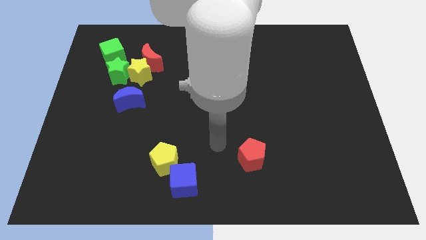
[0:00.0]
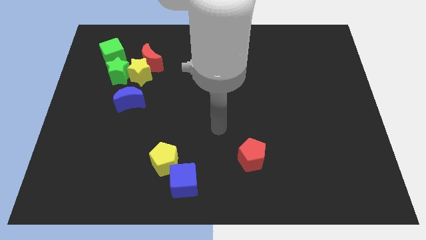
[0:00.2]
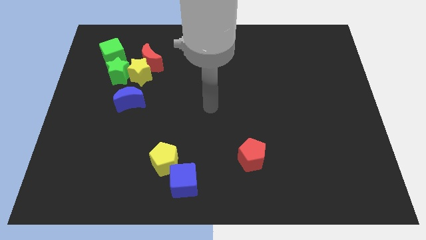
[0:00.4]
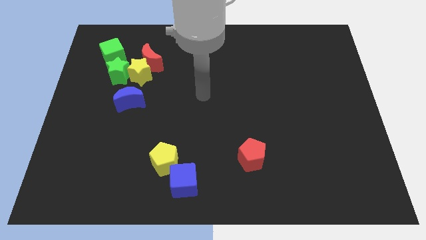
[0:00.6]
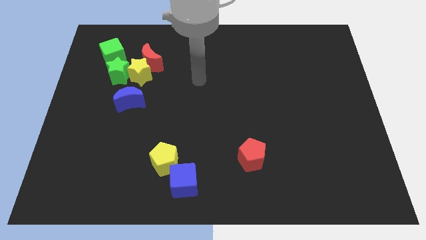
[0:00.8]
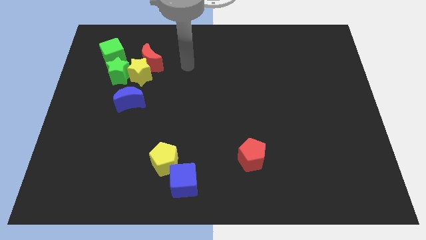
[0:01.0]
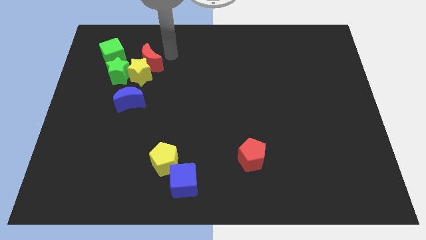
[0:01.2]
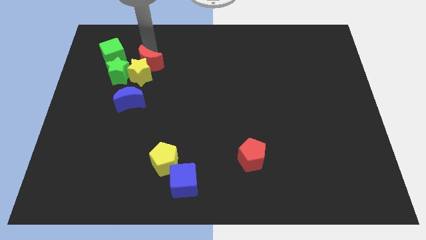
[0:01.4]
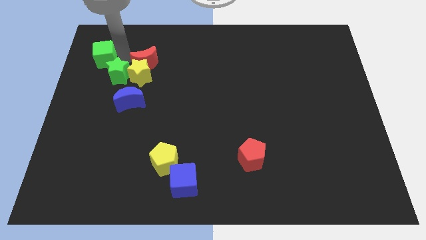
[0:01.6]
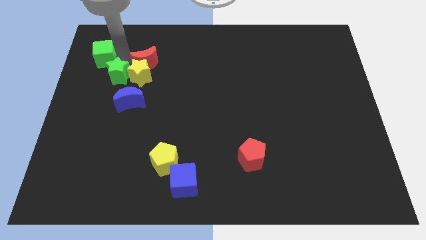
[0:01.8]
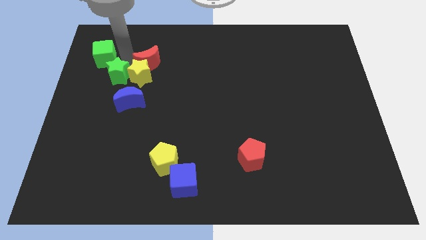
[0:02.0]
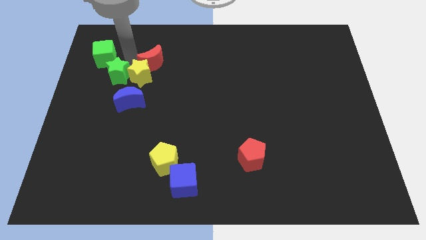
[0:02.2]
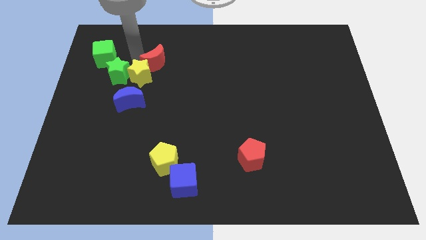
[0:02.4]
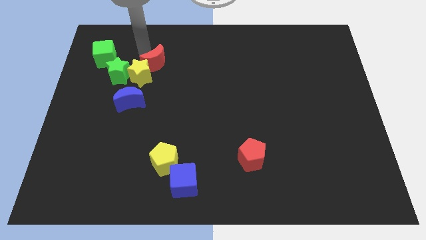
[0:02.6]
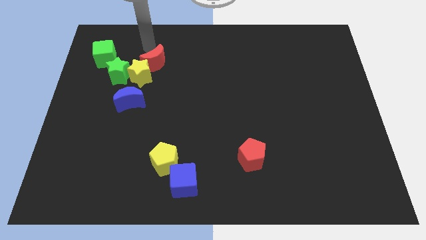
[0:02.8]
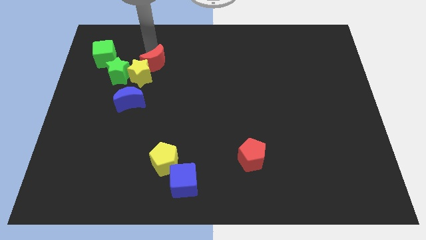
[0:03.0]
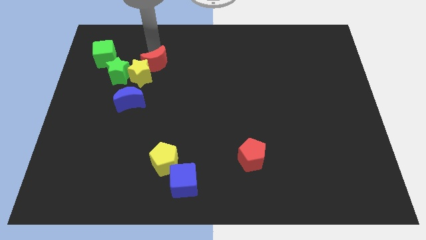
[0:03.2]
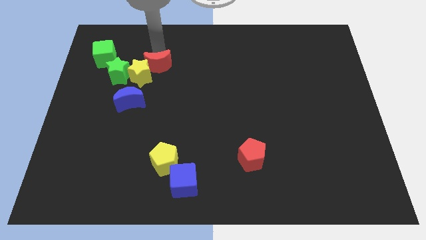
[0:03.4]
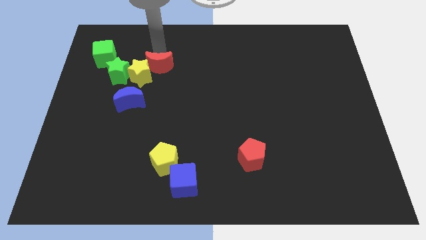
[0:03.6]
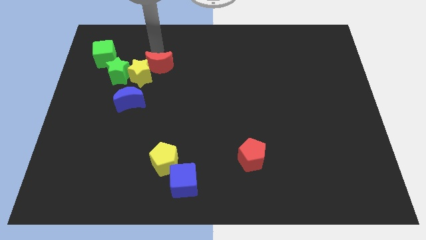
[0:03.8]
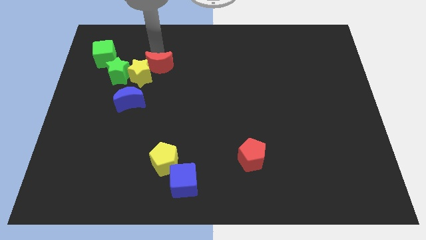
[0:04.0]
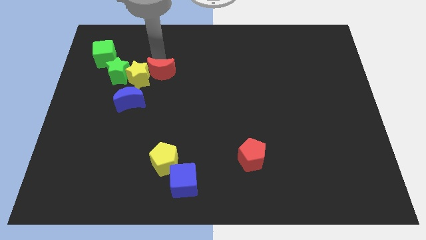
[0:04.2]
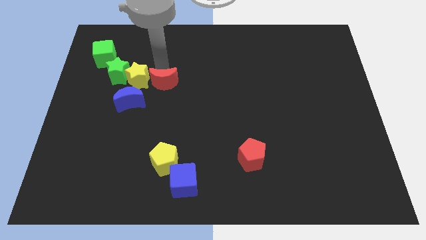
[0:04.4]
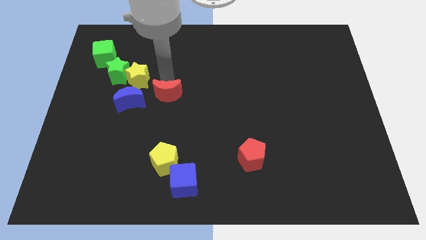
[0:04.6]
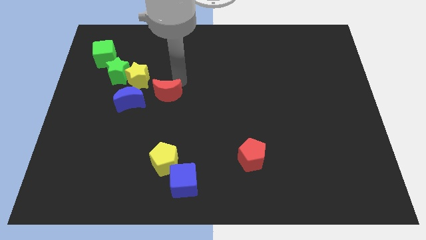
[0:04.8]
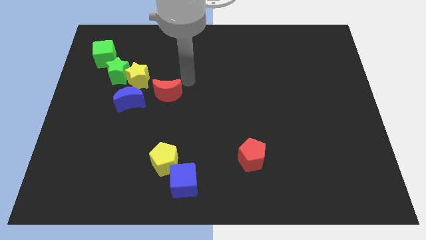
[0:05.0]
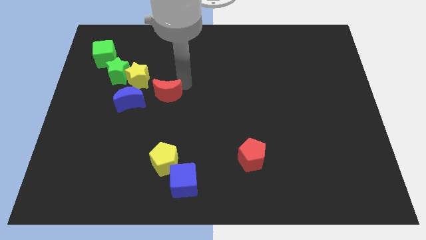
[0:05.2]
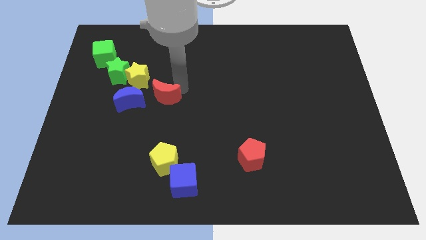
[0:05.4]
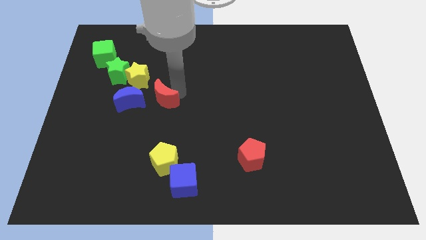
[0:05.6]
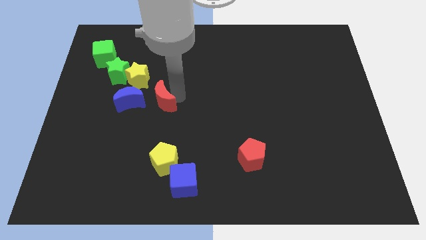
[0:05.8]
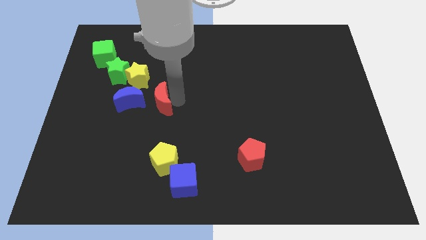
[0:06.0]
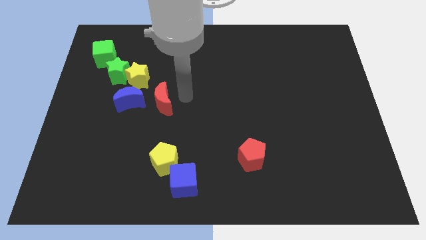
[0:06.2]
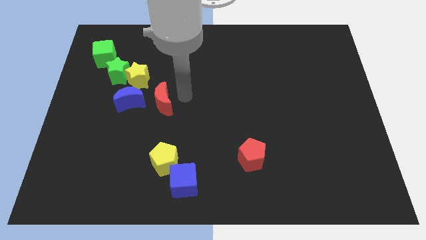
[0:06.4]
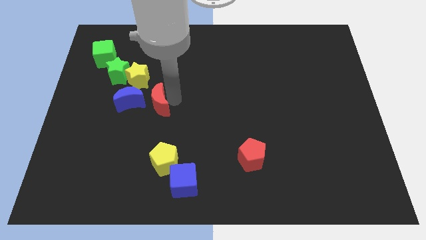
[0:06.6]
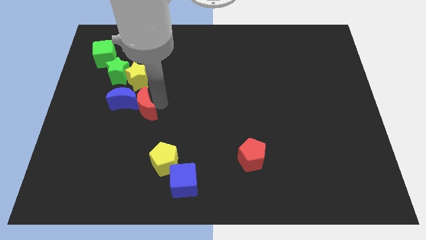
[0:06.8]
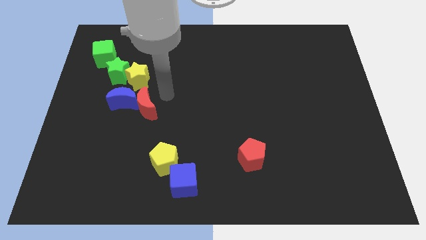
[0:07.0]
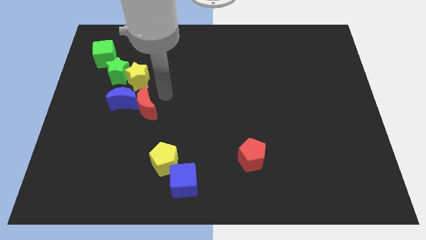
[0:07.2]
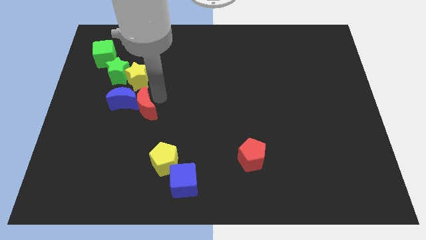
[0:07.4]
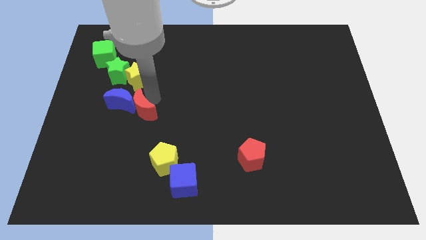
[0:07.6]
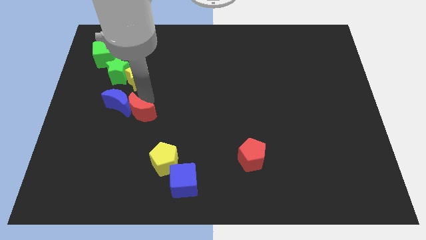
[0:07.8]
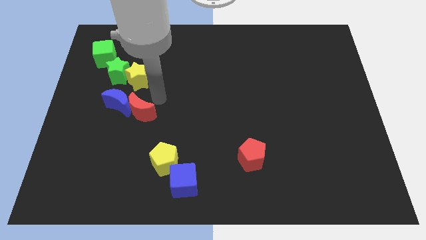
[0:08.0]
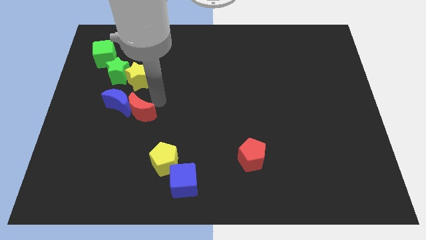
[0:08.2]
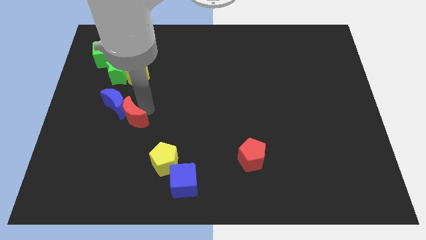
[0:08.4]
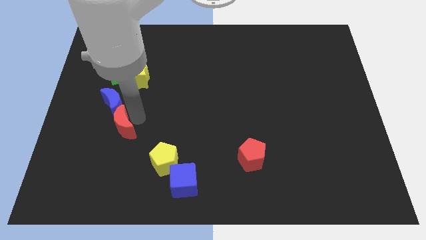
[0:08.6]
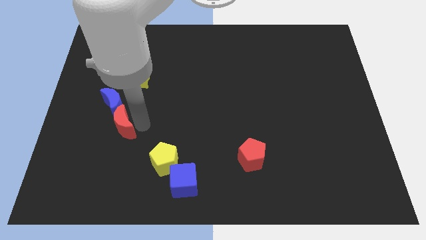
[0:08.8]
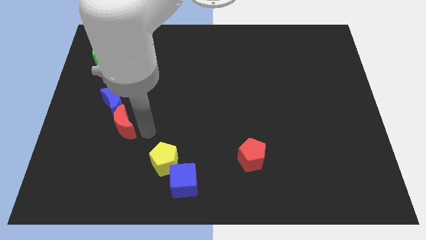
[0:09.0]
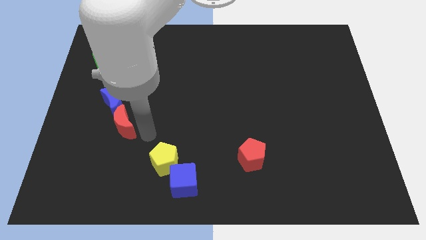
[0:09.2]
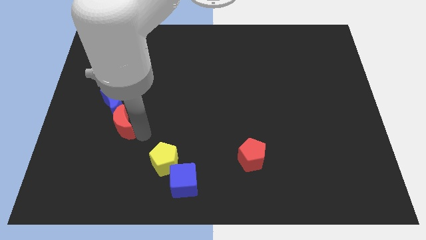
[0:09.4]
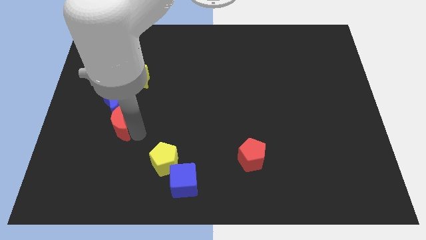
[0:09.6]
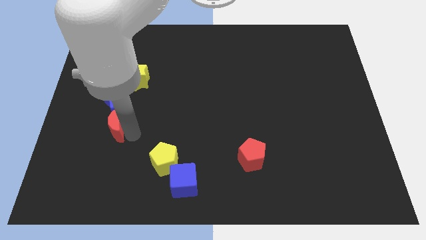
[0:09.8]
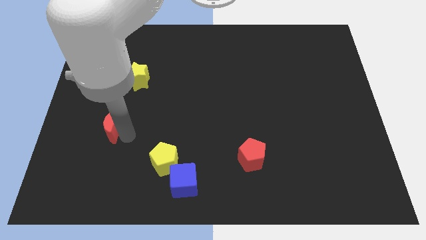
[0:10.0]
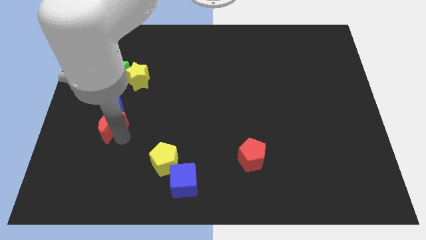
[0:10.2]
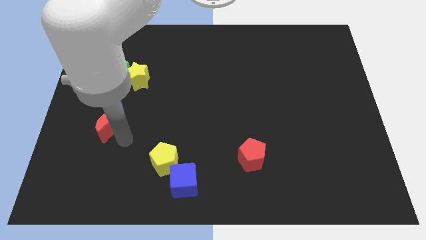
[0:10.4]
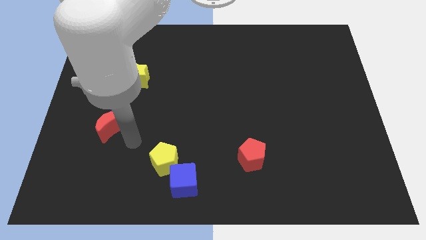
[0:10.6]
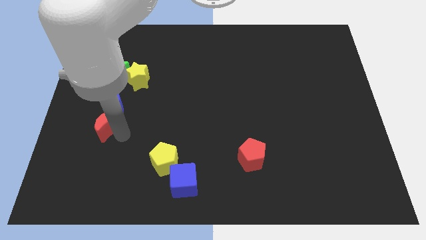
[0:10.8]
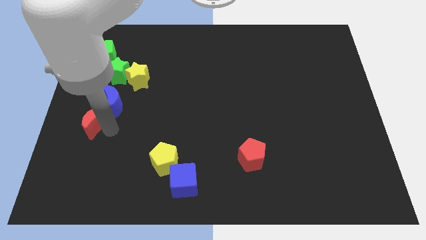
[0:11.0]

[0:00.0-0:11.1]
slide the red moon to the left side of the board

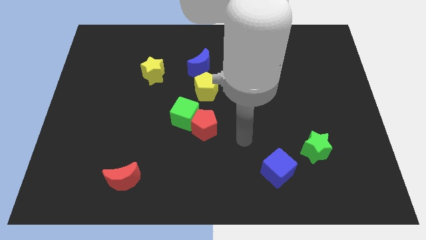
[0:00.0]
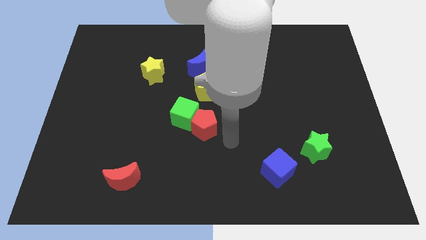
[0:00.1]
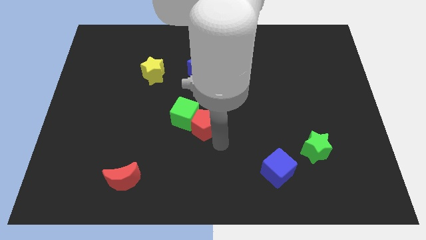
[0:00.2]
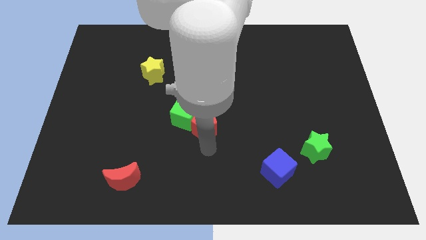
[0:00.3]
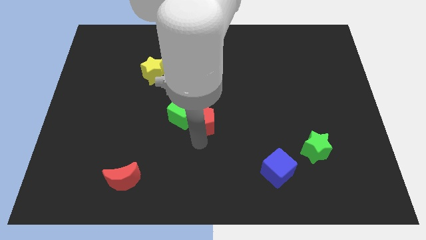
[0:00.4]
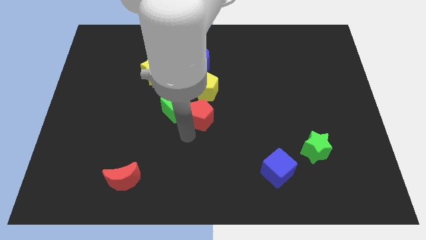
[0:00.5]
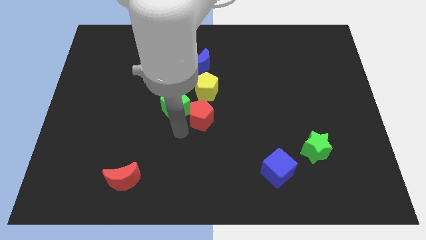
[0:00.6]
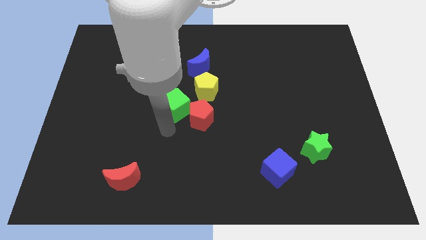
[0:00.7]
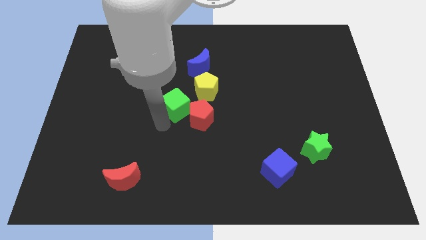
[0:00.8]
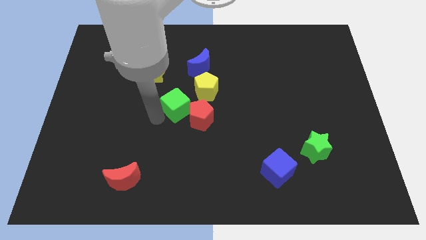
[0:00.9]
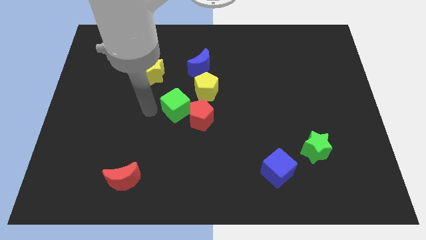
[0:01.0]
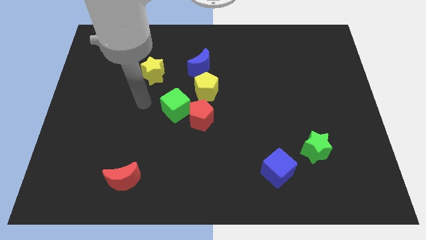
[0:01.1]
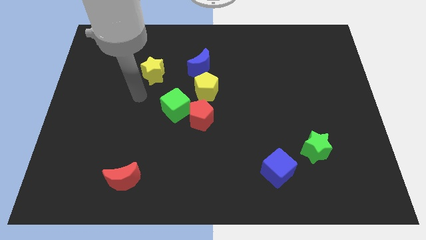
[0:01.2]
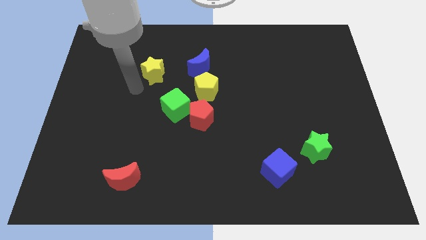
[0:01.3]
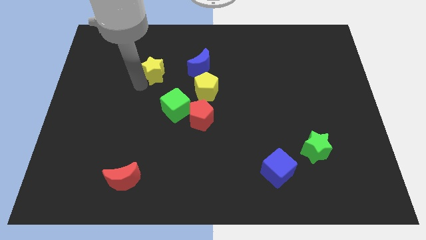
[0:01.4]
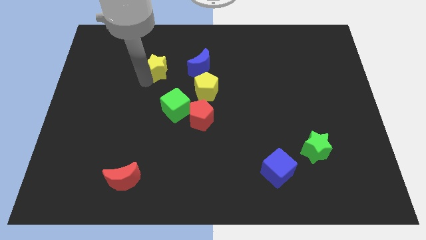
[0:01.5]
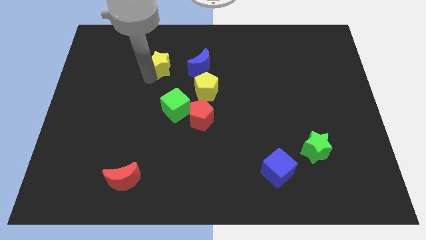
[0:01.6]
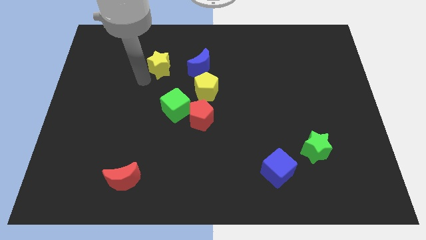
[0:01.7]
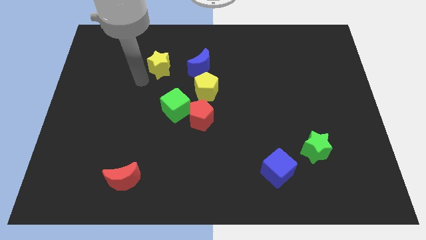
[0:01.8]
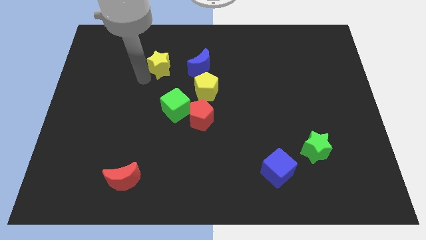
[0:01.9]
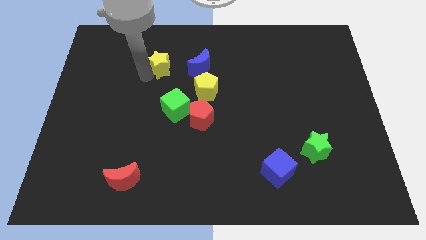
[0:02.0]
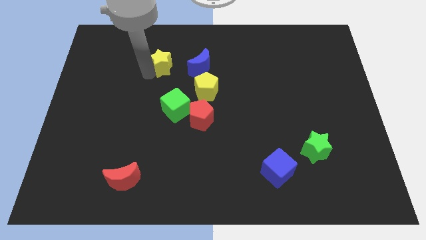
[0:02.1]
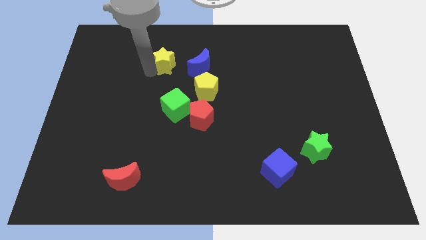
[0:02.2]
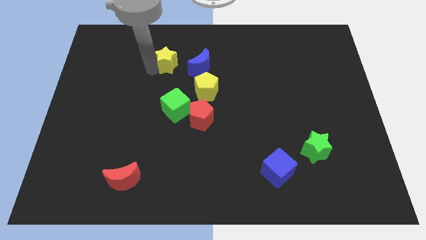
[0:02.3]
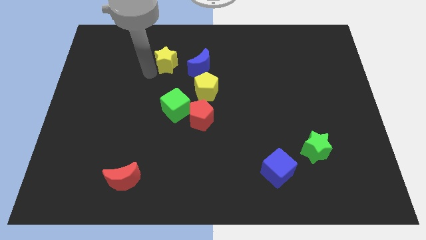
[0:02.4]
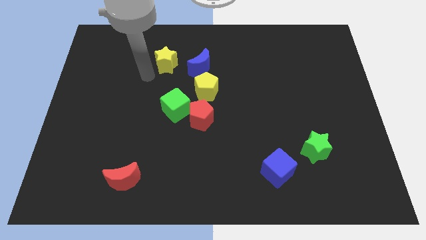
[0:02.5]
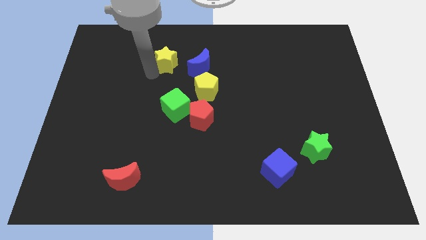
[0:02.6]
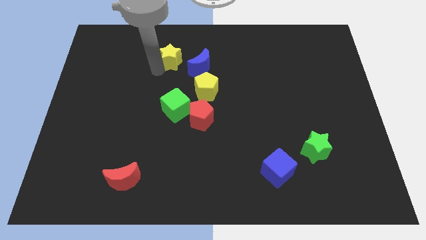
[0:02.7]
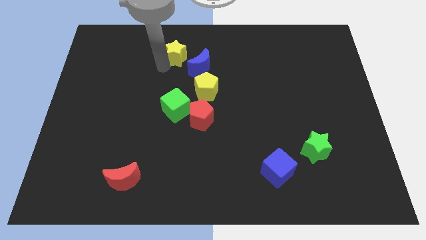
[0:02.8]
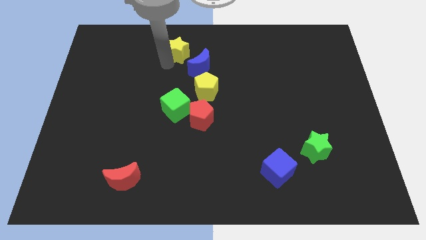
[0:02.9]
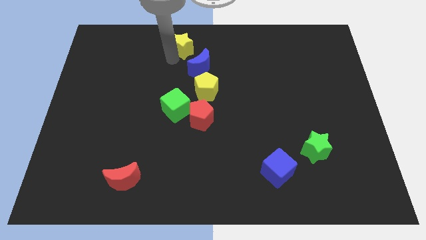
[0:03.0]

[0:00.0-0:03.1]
put the yellow star to the top
